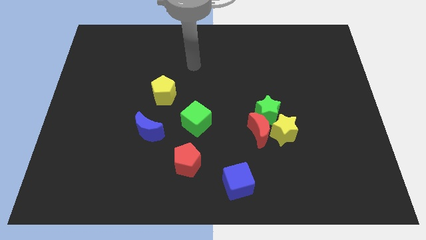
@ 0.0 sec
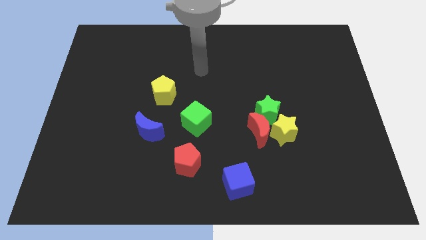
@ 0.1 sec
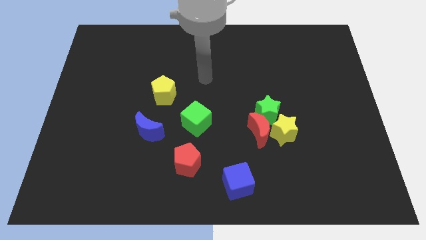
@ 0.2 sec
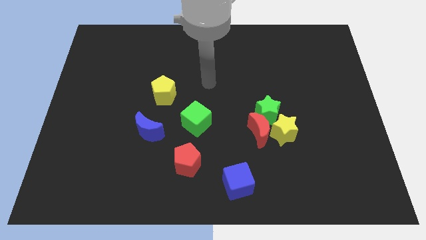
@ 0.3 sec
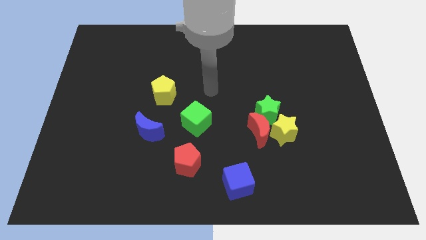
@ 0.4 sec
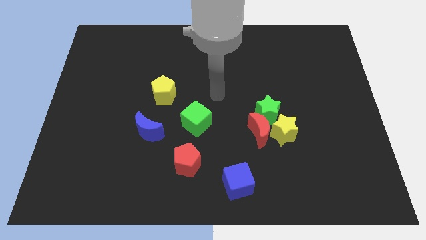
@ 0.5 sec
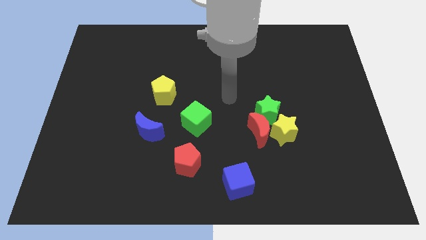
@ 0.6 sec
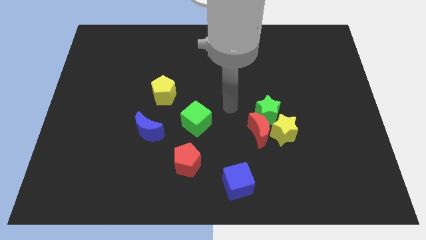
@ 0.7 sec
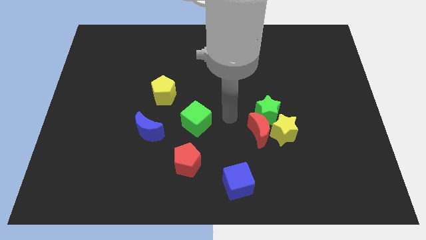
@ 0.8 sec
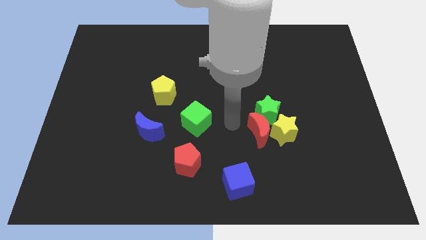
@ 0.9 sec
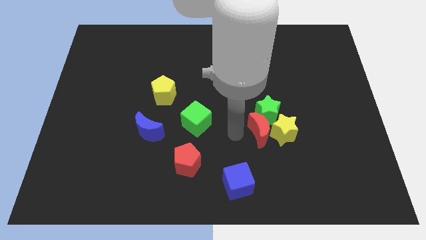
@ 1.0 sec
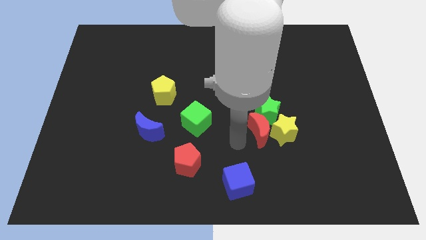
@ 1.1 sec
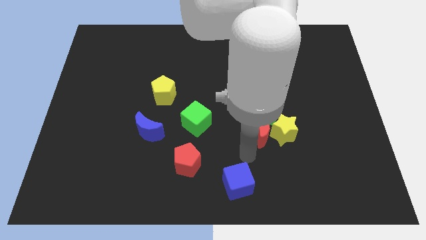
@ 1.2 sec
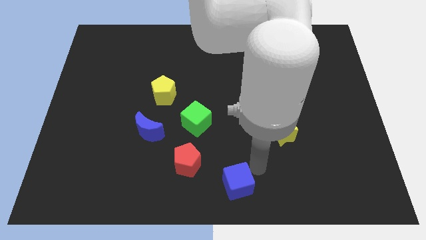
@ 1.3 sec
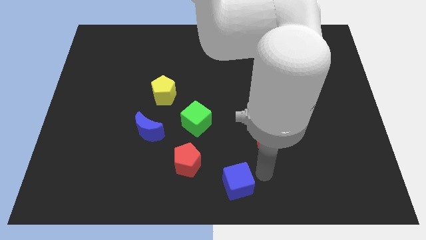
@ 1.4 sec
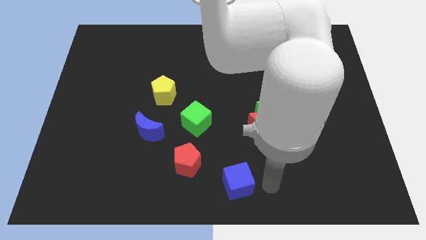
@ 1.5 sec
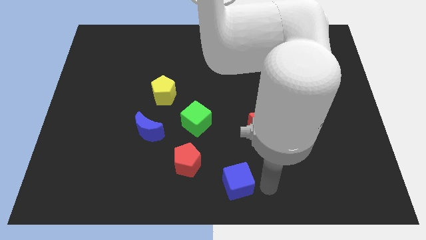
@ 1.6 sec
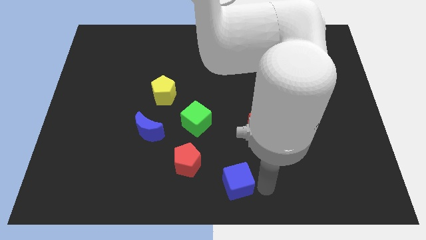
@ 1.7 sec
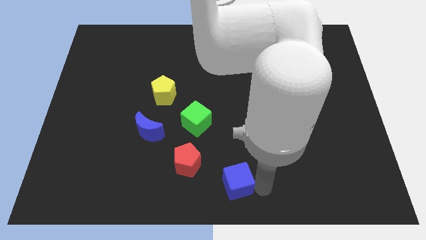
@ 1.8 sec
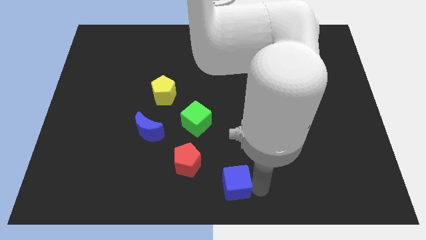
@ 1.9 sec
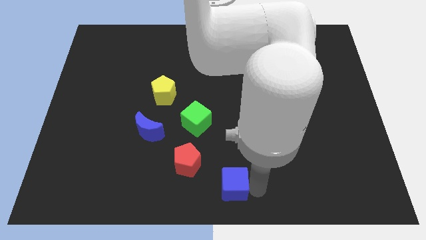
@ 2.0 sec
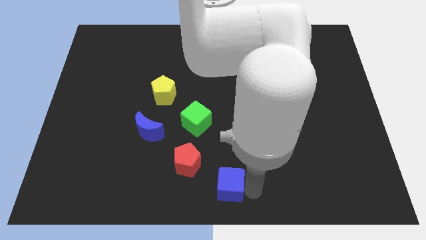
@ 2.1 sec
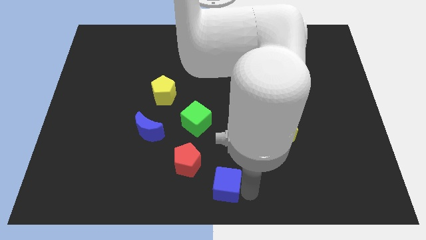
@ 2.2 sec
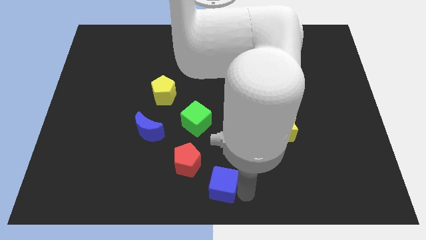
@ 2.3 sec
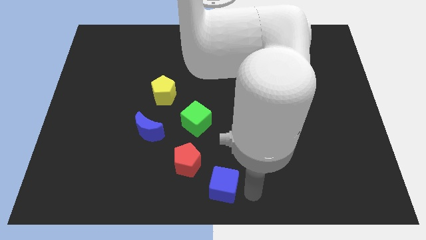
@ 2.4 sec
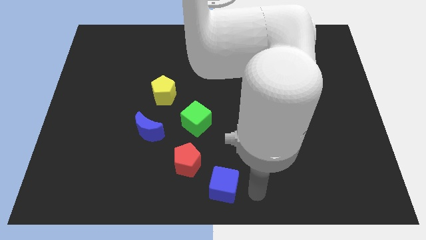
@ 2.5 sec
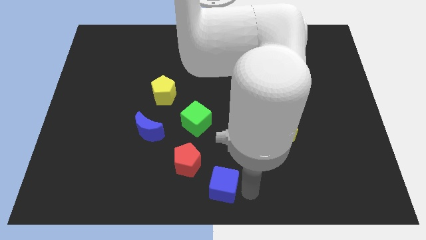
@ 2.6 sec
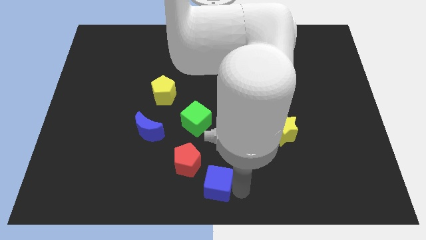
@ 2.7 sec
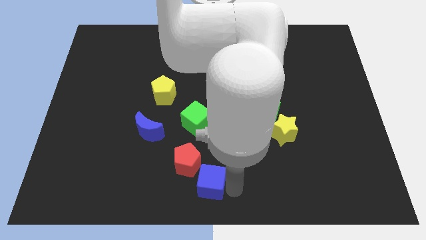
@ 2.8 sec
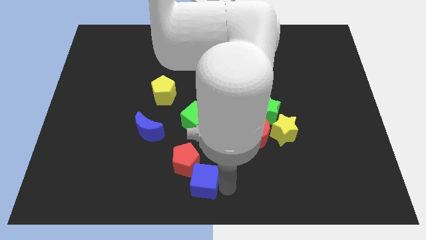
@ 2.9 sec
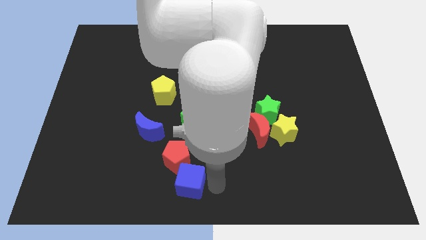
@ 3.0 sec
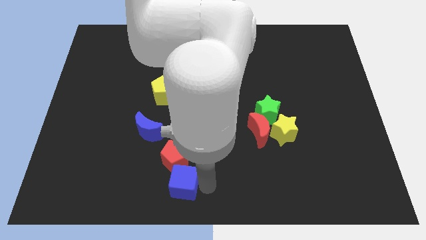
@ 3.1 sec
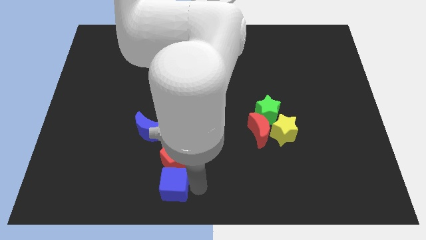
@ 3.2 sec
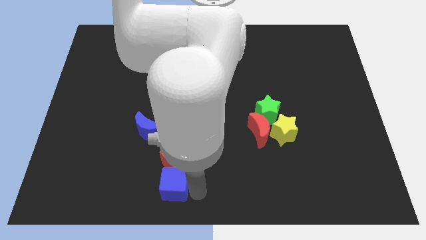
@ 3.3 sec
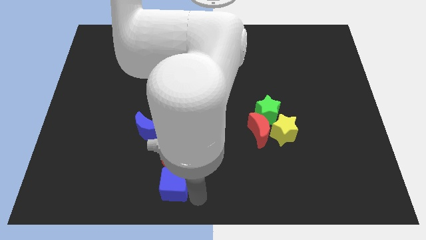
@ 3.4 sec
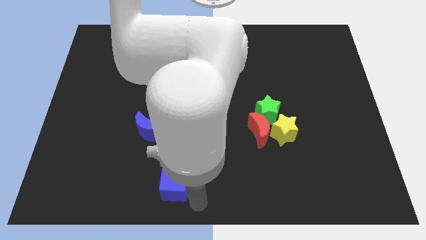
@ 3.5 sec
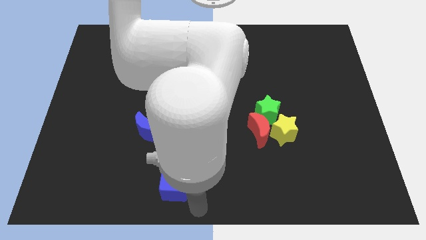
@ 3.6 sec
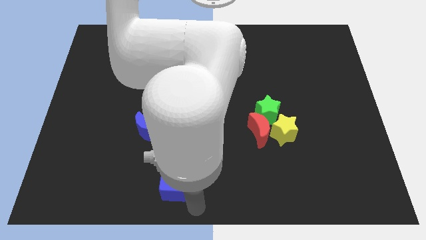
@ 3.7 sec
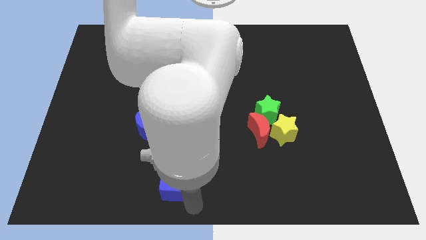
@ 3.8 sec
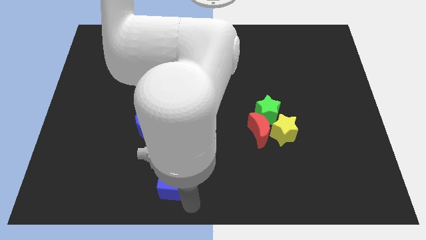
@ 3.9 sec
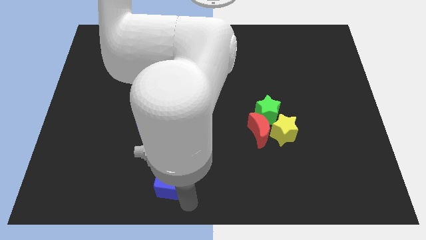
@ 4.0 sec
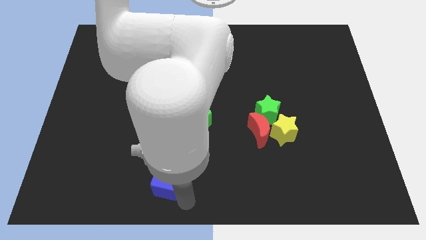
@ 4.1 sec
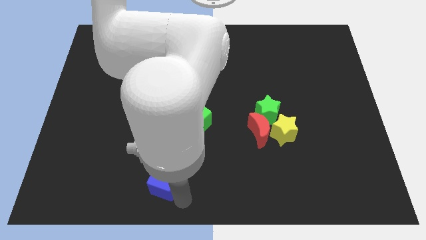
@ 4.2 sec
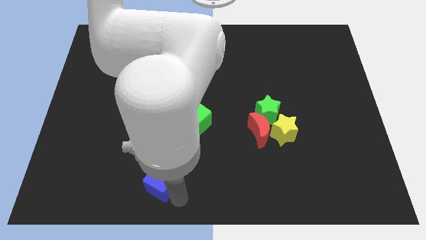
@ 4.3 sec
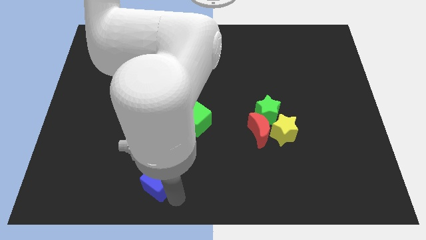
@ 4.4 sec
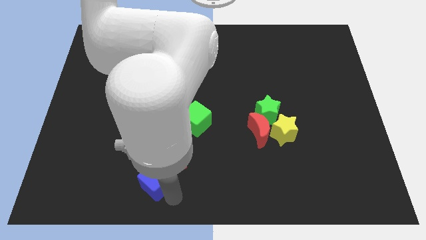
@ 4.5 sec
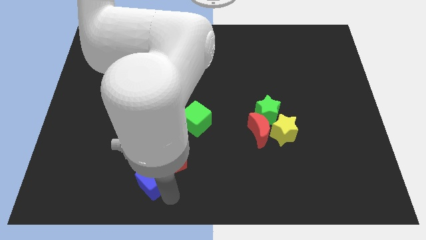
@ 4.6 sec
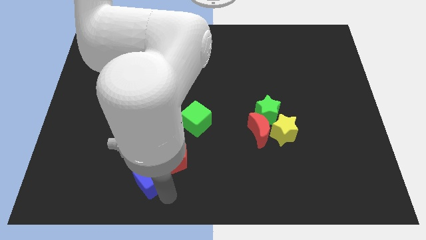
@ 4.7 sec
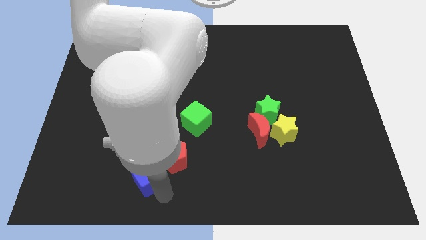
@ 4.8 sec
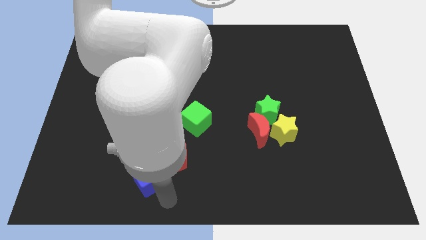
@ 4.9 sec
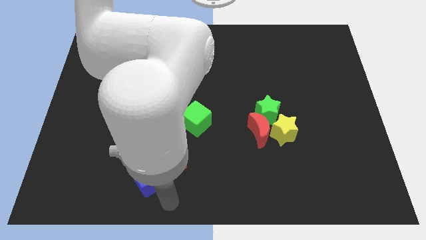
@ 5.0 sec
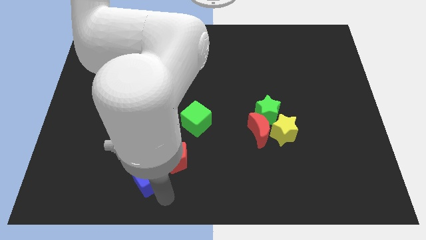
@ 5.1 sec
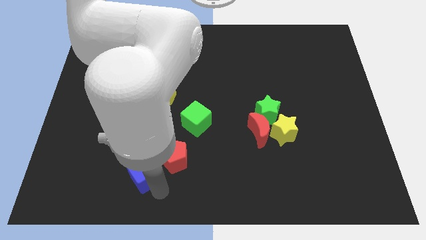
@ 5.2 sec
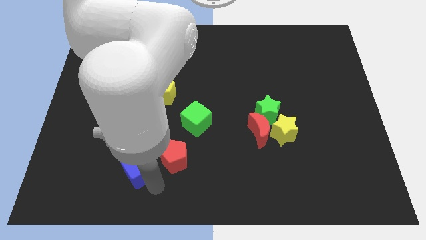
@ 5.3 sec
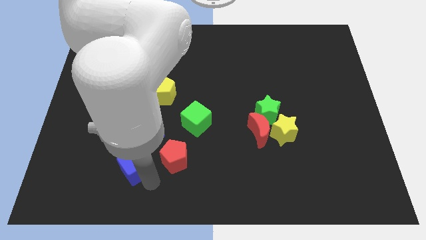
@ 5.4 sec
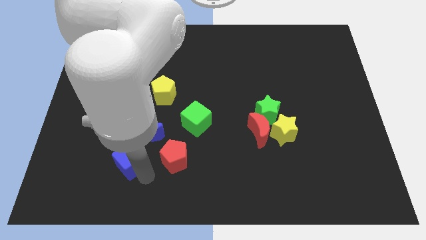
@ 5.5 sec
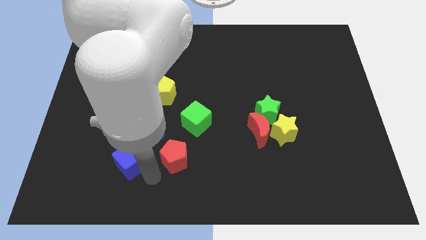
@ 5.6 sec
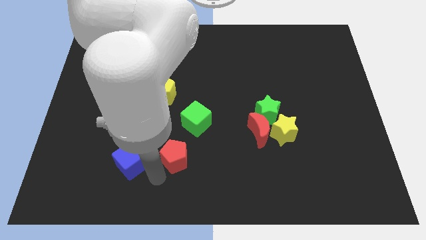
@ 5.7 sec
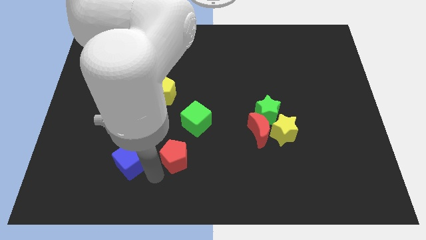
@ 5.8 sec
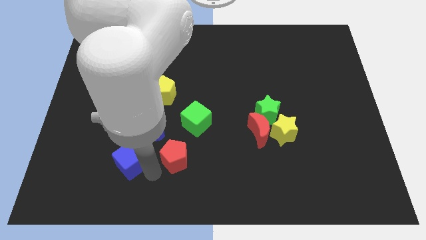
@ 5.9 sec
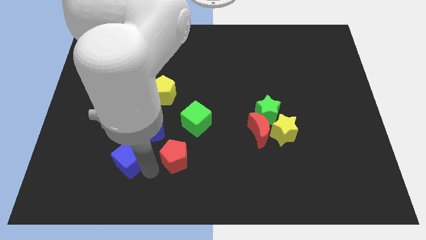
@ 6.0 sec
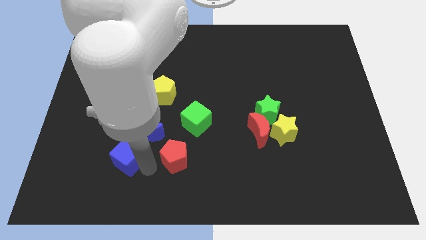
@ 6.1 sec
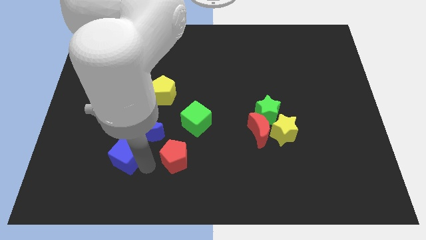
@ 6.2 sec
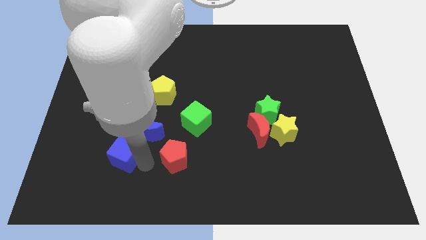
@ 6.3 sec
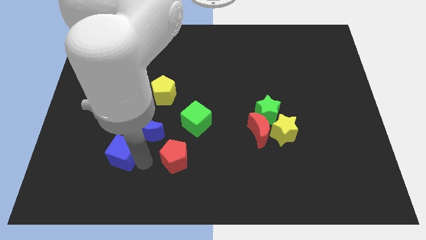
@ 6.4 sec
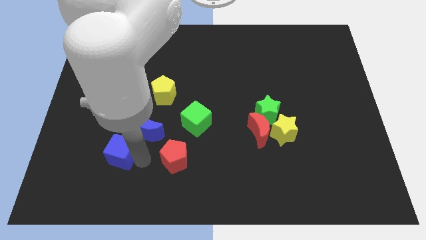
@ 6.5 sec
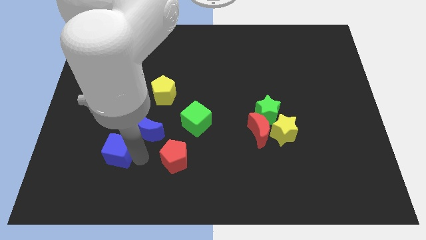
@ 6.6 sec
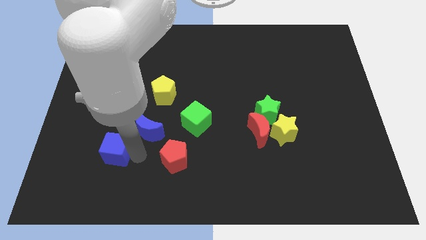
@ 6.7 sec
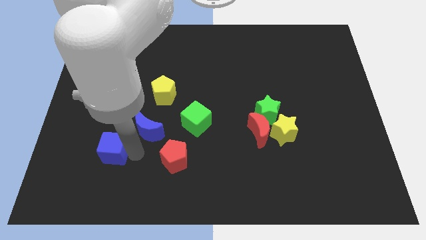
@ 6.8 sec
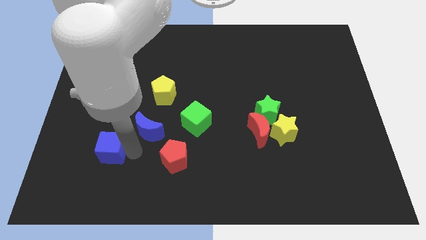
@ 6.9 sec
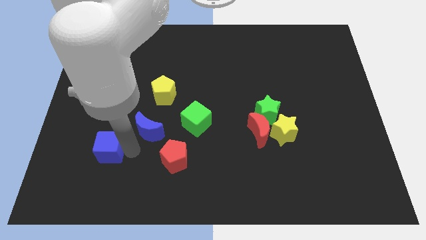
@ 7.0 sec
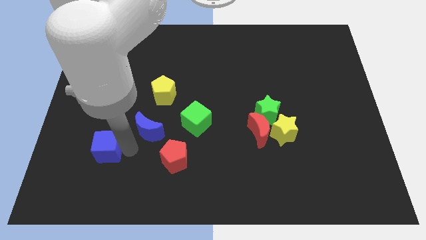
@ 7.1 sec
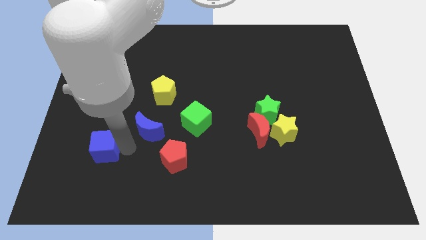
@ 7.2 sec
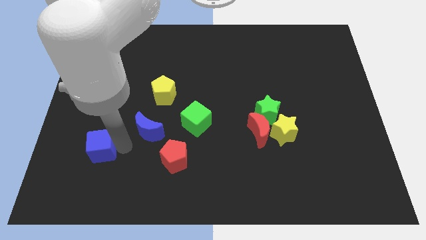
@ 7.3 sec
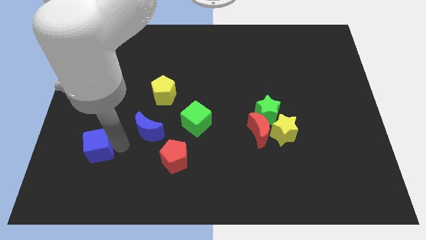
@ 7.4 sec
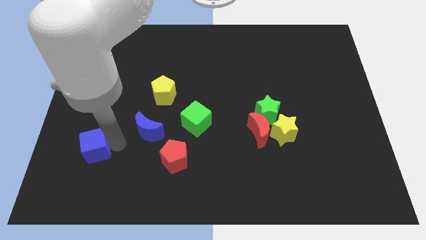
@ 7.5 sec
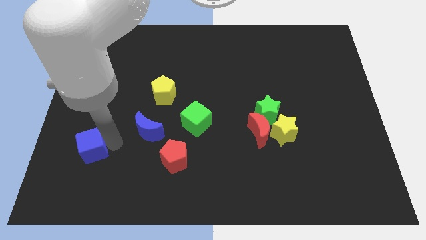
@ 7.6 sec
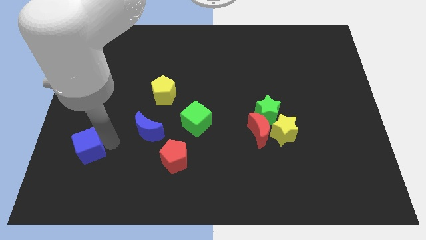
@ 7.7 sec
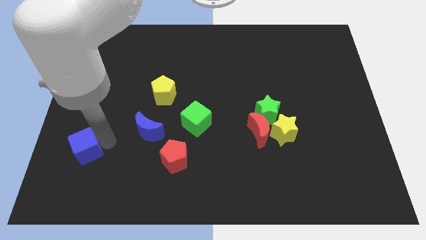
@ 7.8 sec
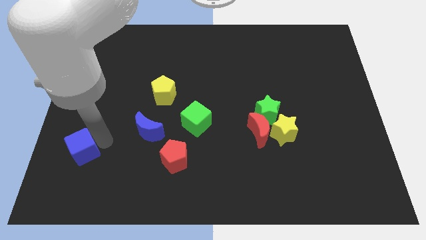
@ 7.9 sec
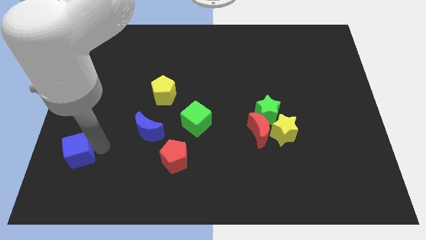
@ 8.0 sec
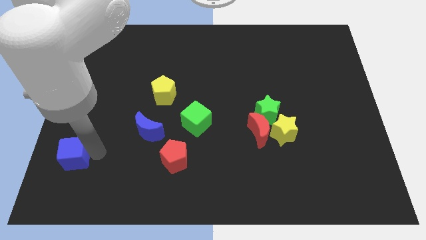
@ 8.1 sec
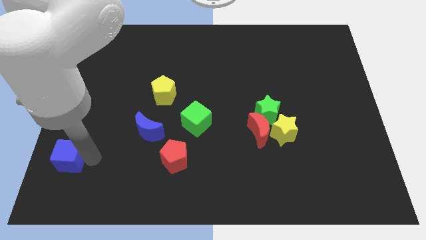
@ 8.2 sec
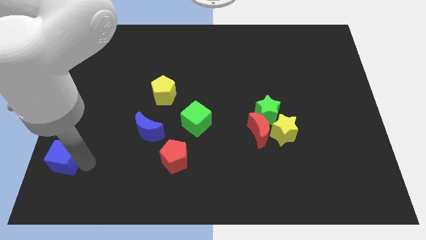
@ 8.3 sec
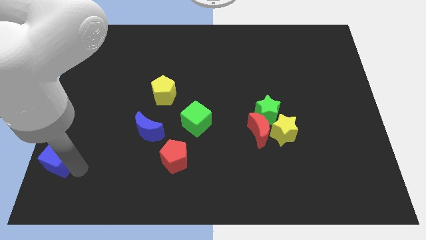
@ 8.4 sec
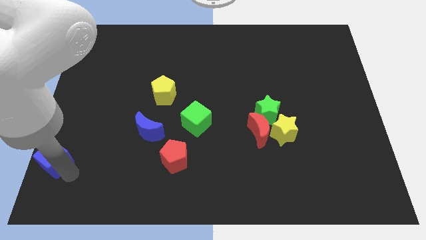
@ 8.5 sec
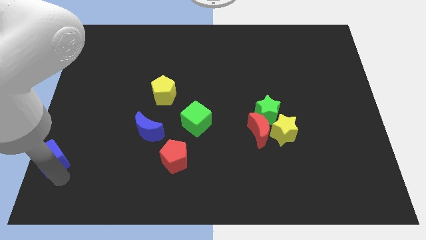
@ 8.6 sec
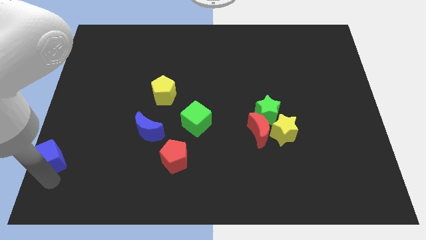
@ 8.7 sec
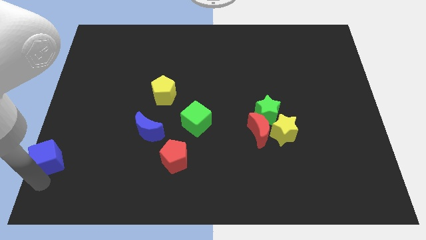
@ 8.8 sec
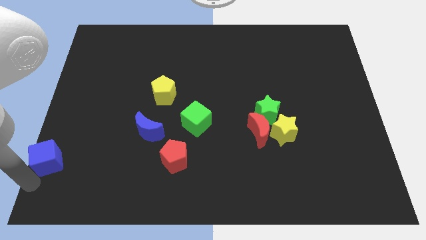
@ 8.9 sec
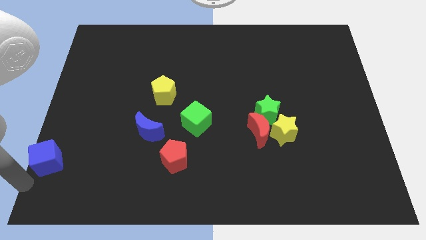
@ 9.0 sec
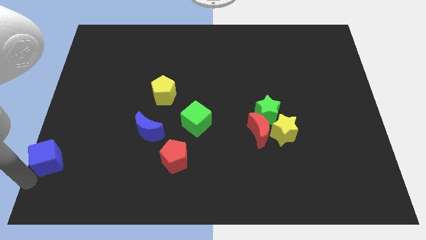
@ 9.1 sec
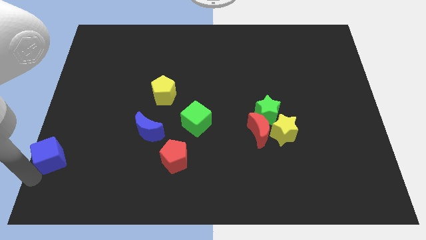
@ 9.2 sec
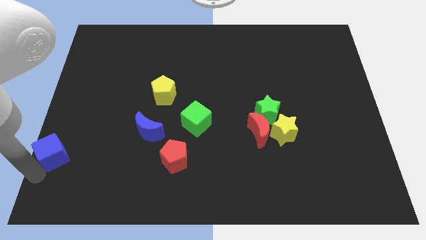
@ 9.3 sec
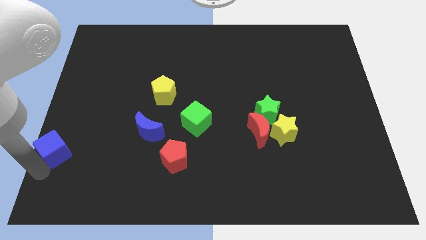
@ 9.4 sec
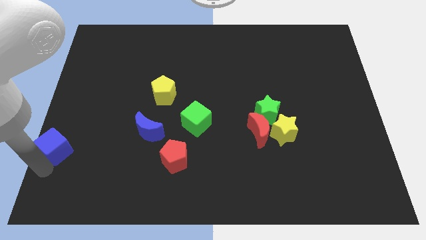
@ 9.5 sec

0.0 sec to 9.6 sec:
put the blue cube to the center left
